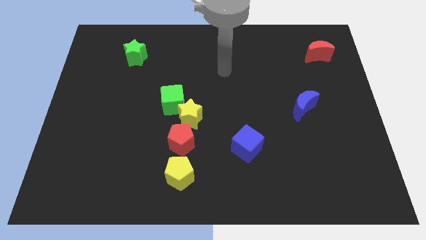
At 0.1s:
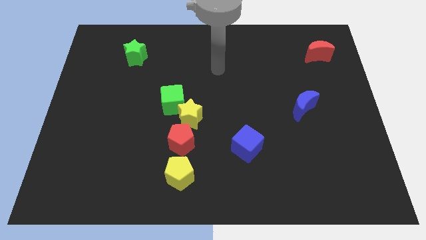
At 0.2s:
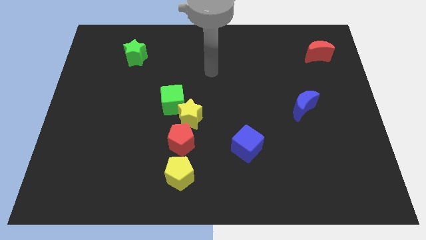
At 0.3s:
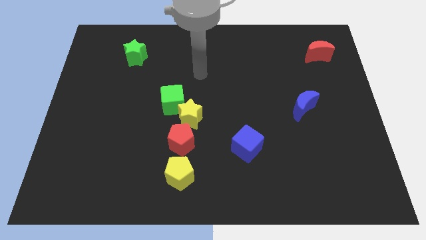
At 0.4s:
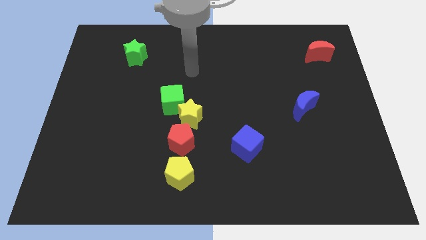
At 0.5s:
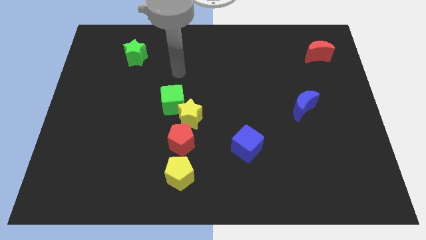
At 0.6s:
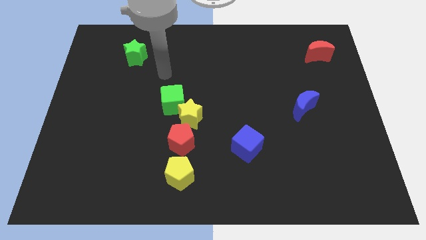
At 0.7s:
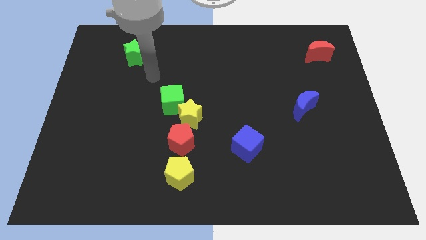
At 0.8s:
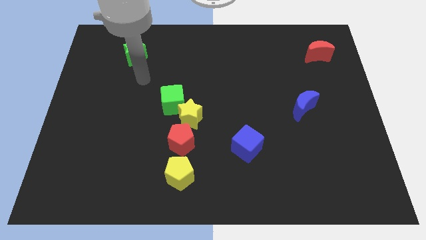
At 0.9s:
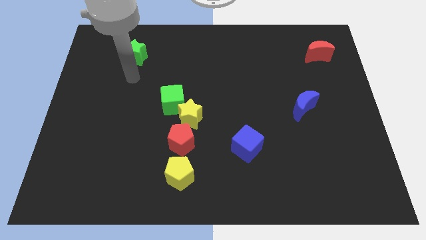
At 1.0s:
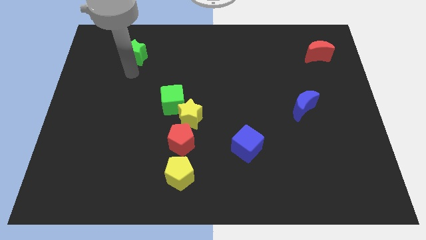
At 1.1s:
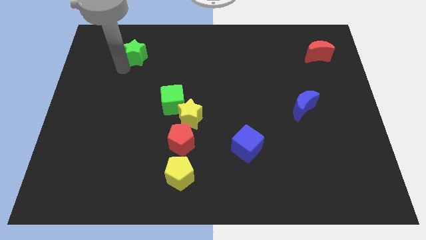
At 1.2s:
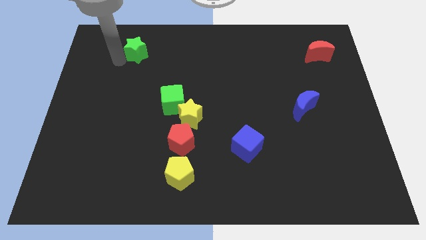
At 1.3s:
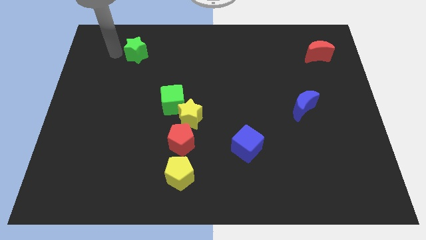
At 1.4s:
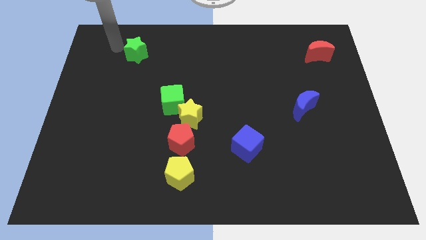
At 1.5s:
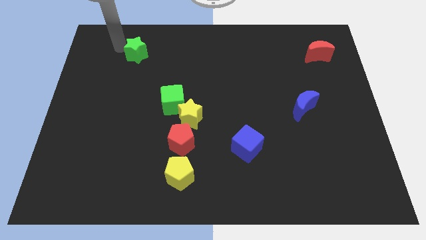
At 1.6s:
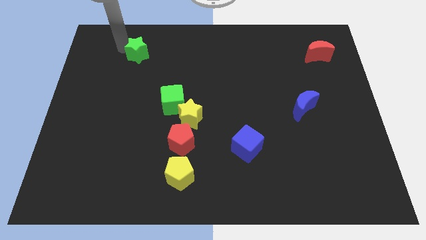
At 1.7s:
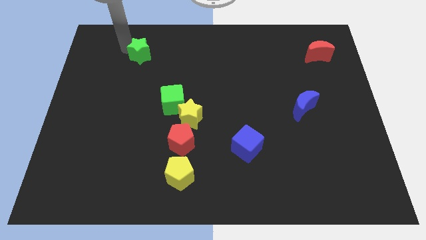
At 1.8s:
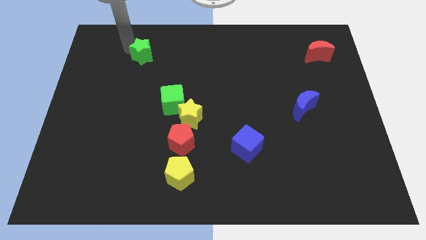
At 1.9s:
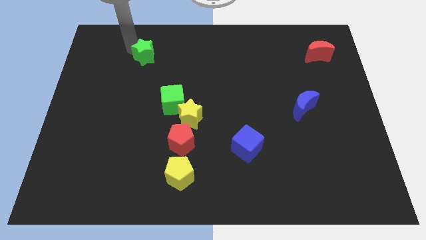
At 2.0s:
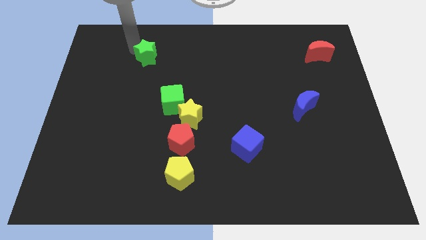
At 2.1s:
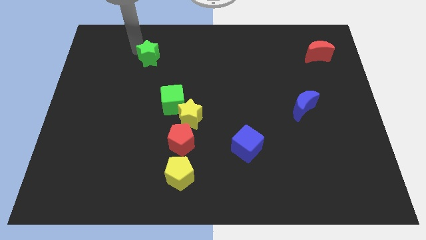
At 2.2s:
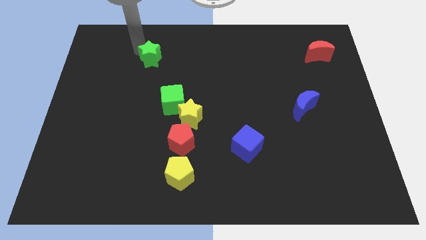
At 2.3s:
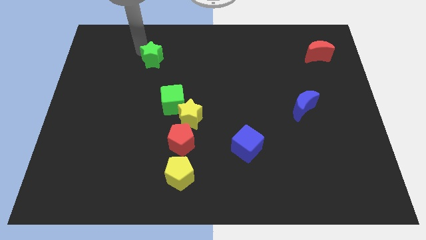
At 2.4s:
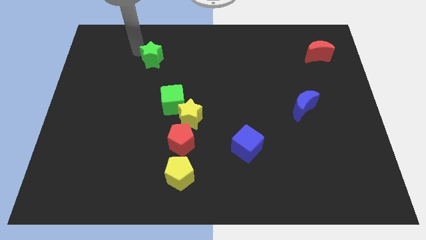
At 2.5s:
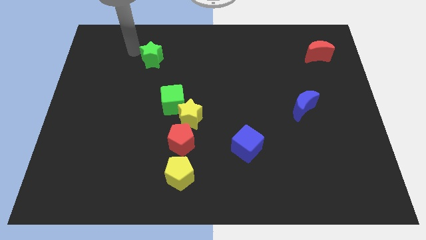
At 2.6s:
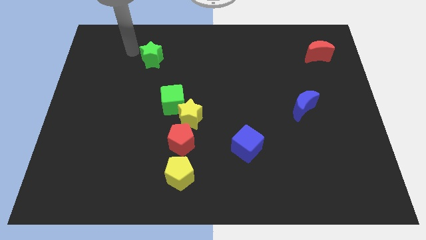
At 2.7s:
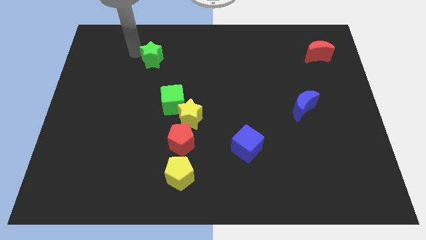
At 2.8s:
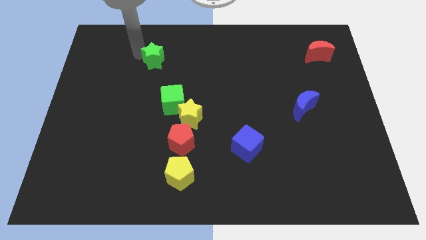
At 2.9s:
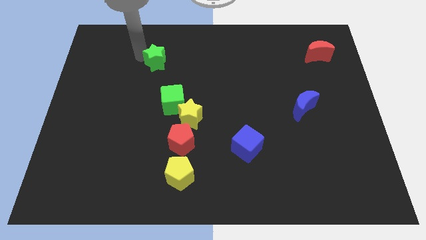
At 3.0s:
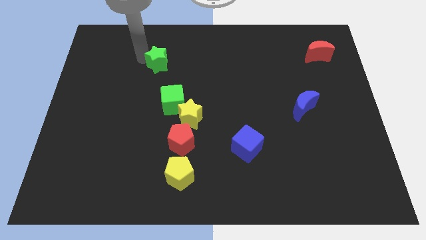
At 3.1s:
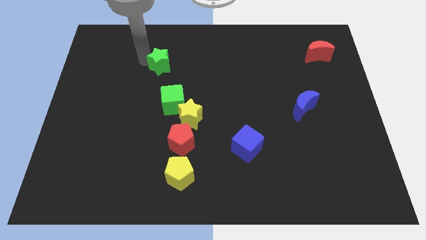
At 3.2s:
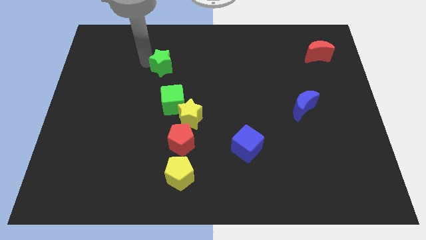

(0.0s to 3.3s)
push the green star somewhat to the right

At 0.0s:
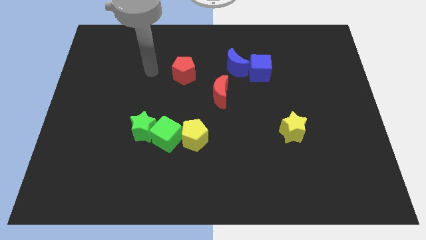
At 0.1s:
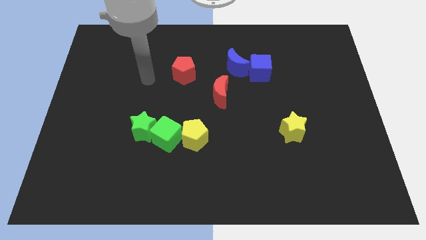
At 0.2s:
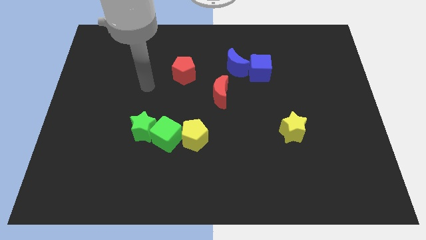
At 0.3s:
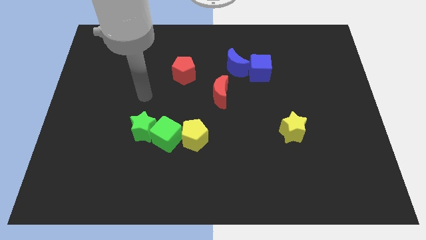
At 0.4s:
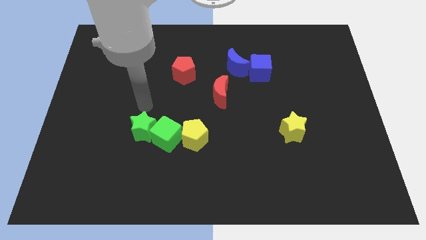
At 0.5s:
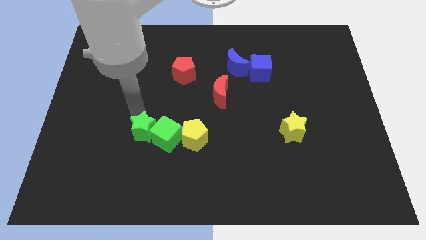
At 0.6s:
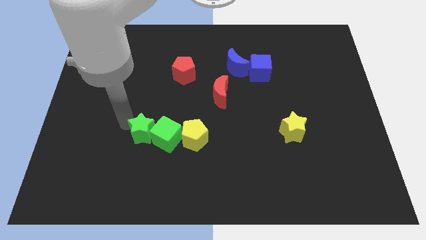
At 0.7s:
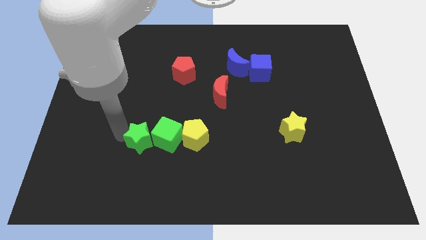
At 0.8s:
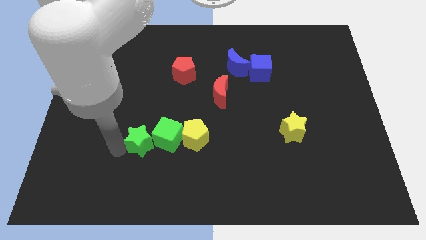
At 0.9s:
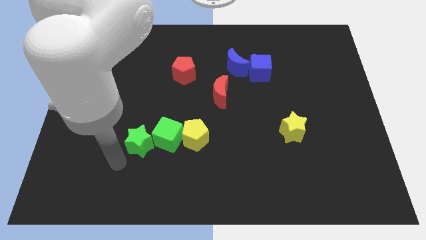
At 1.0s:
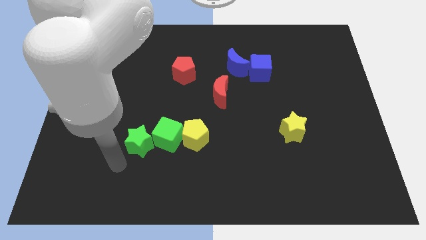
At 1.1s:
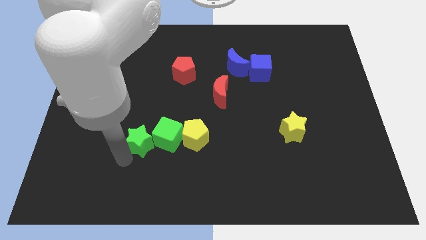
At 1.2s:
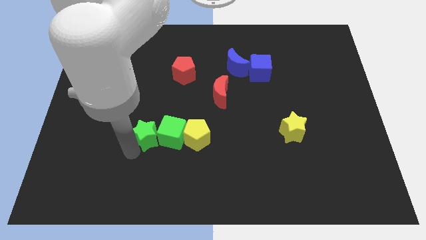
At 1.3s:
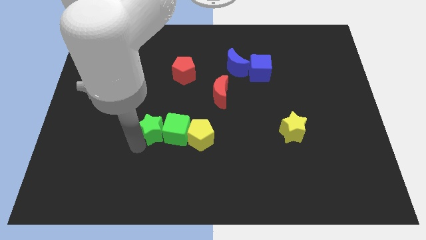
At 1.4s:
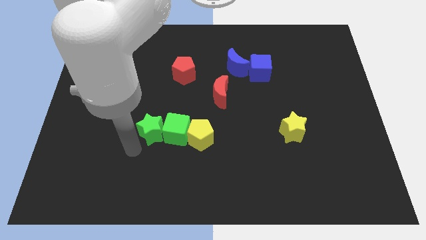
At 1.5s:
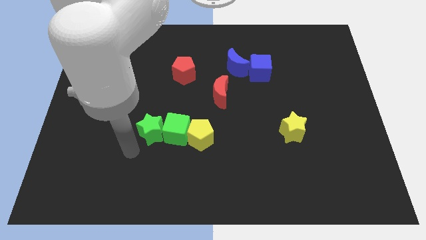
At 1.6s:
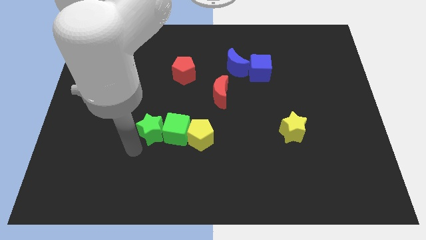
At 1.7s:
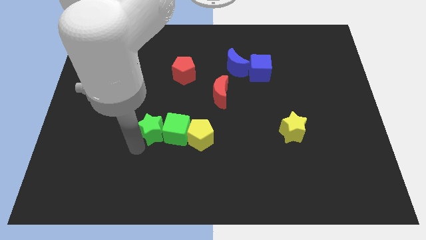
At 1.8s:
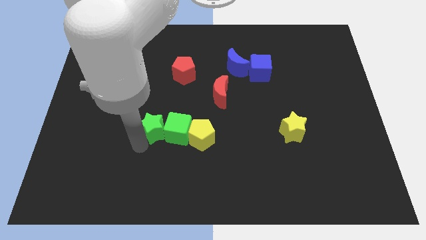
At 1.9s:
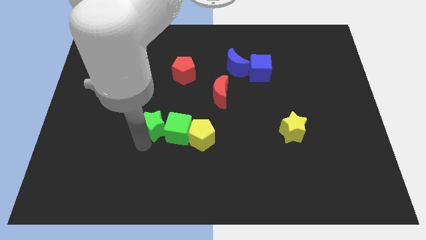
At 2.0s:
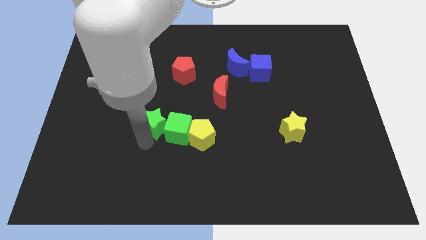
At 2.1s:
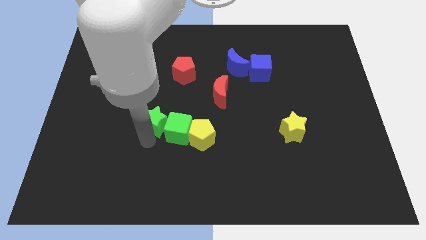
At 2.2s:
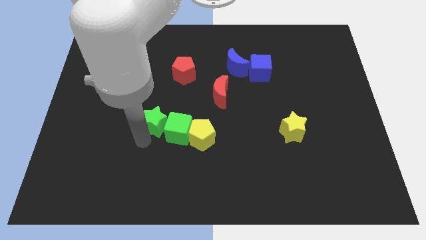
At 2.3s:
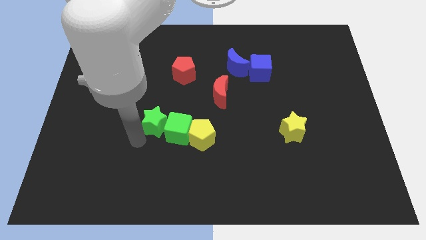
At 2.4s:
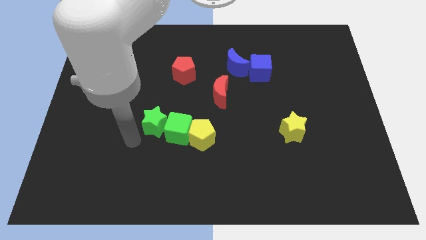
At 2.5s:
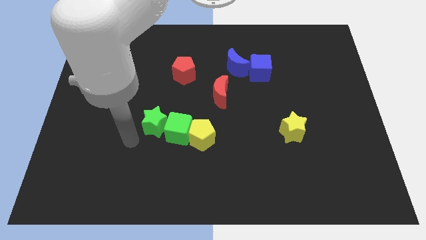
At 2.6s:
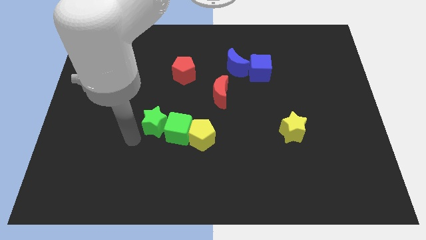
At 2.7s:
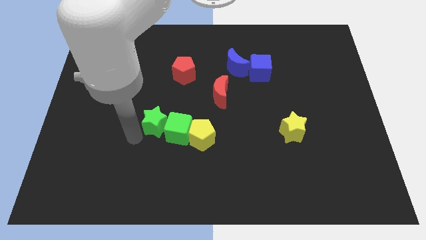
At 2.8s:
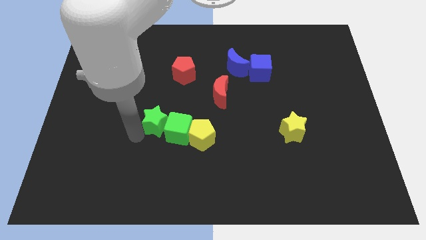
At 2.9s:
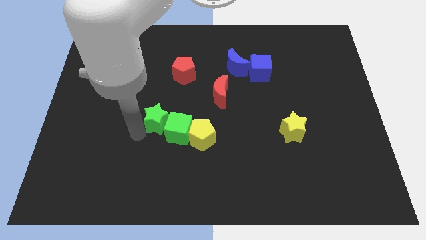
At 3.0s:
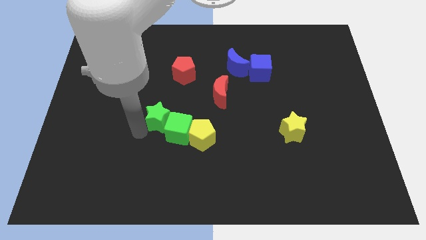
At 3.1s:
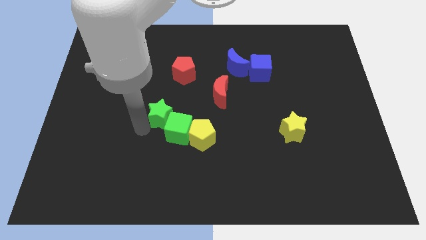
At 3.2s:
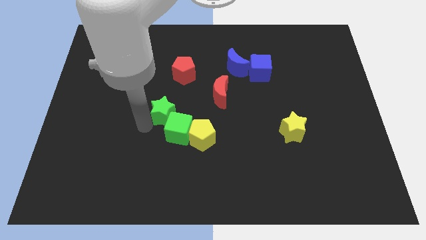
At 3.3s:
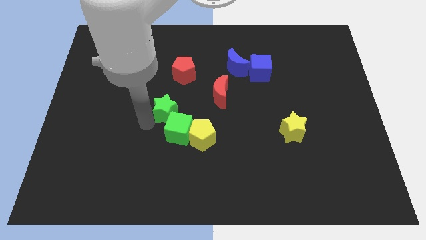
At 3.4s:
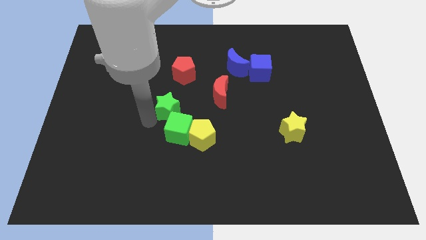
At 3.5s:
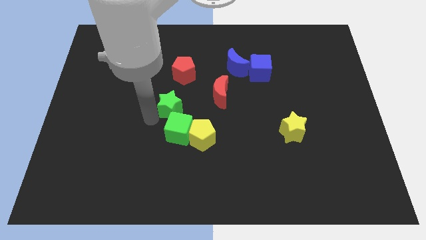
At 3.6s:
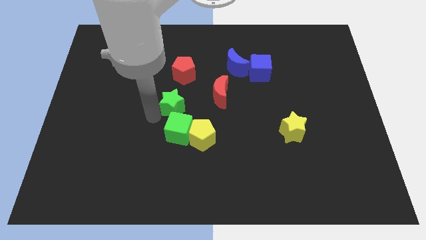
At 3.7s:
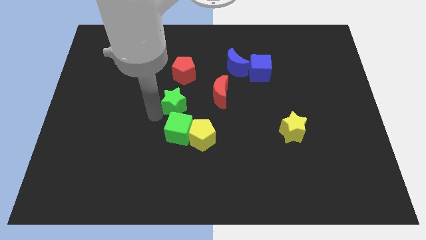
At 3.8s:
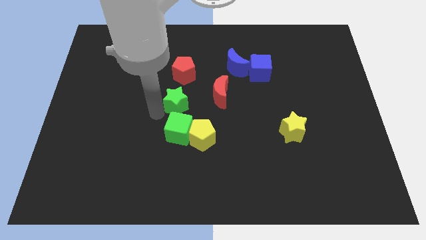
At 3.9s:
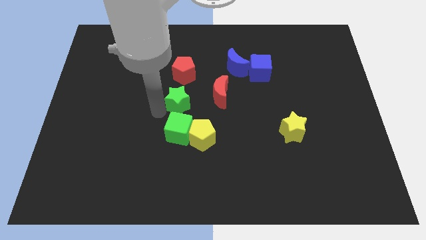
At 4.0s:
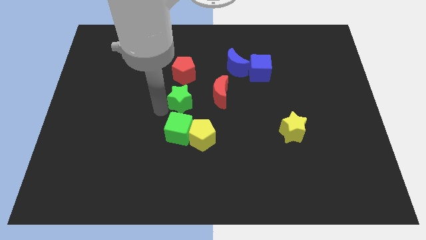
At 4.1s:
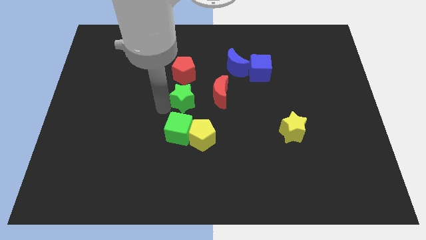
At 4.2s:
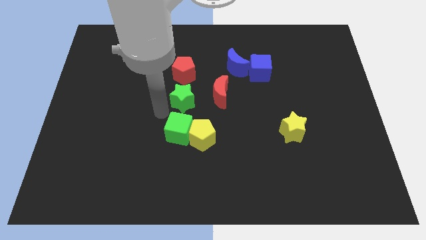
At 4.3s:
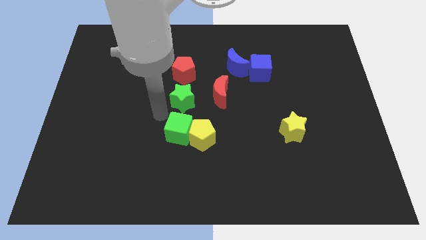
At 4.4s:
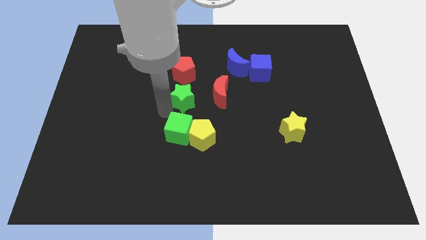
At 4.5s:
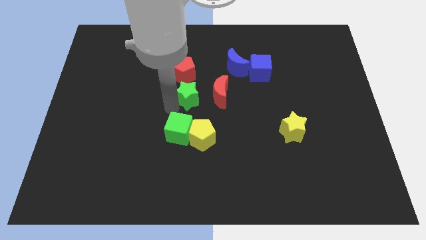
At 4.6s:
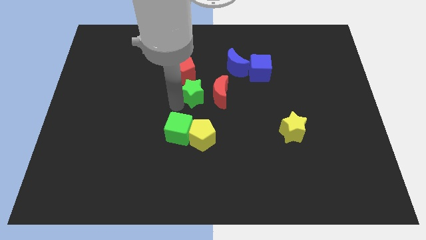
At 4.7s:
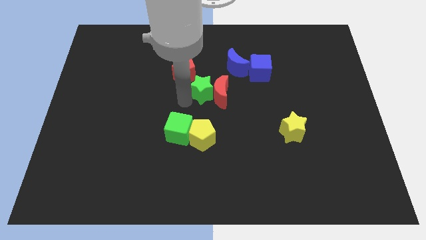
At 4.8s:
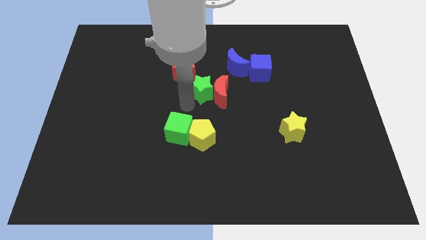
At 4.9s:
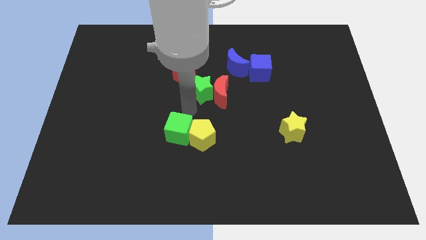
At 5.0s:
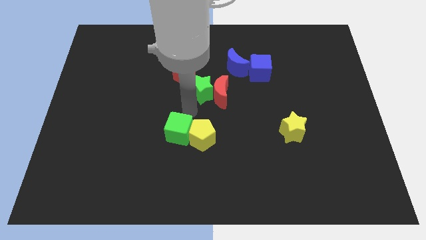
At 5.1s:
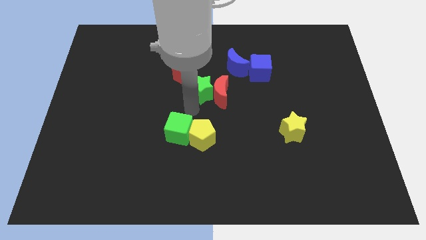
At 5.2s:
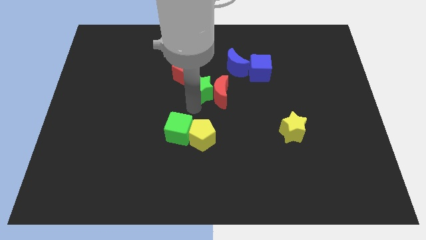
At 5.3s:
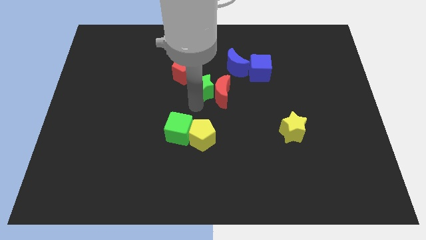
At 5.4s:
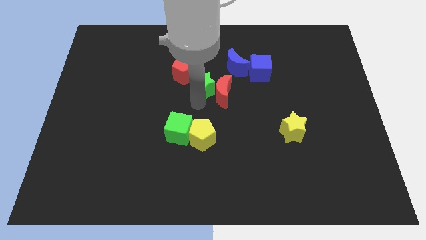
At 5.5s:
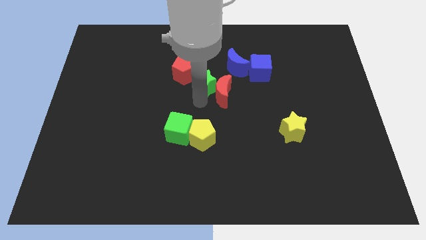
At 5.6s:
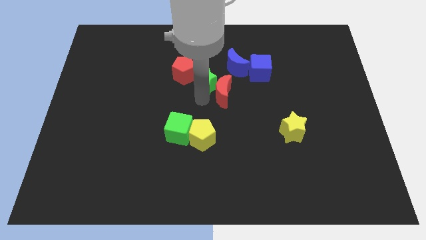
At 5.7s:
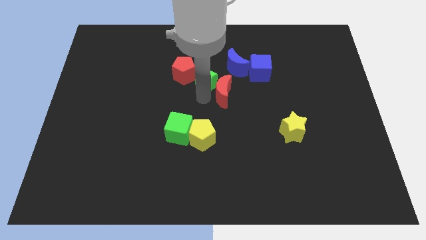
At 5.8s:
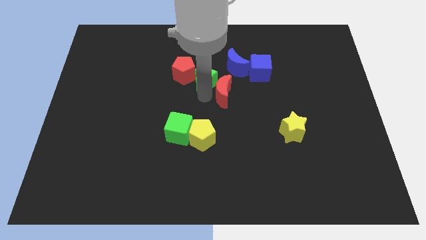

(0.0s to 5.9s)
move the green star diagonally upwards and to the right
